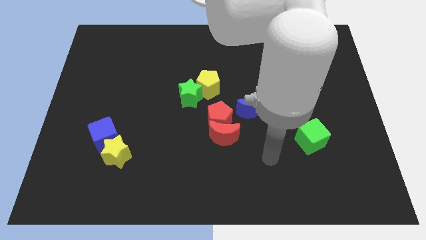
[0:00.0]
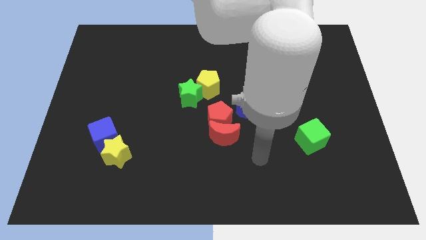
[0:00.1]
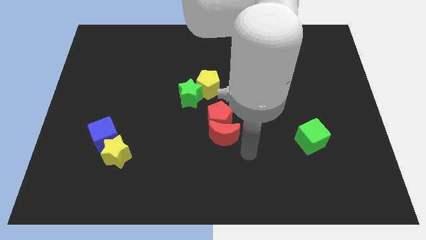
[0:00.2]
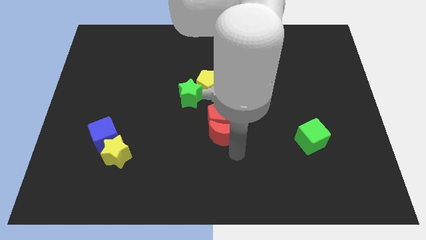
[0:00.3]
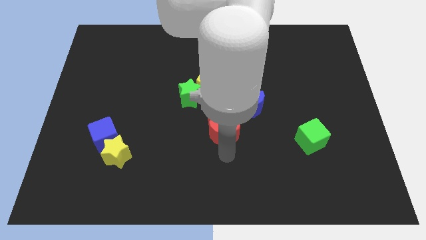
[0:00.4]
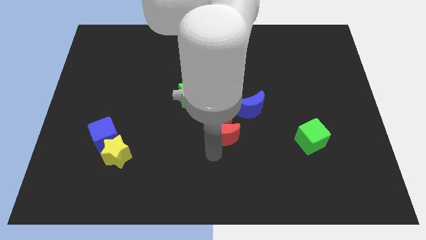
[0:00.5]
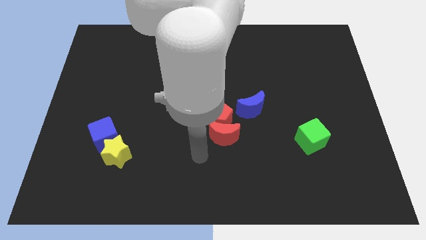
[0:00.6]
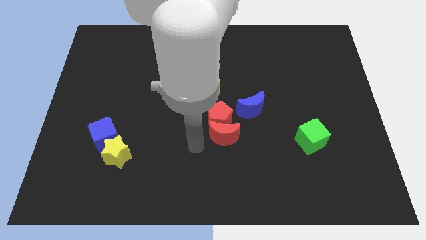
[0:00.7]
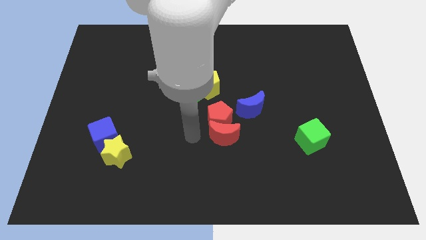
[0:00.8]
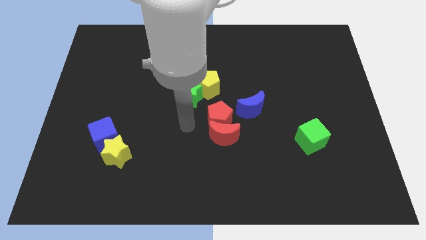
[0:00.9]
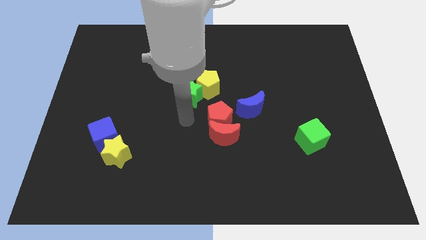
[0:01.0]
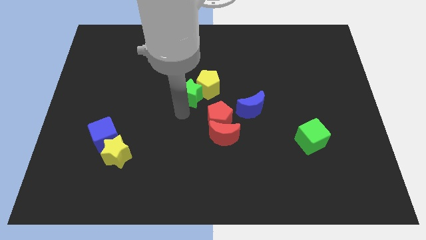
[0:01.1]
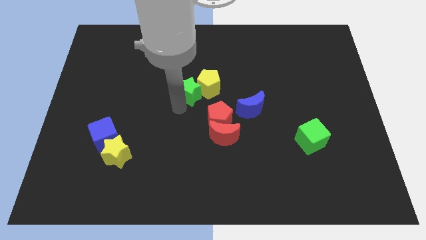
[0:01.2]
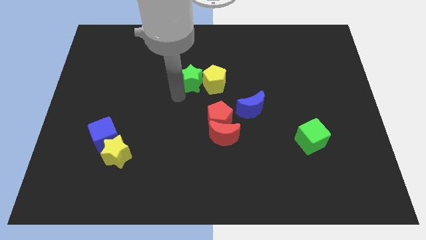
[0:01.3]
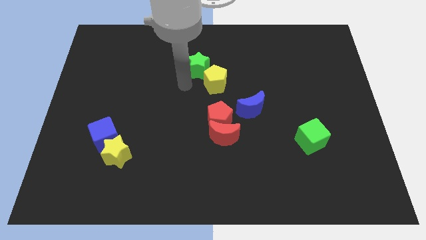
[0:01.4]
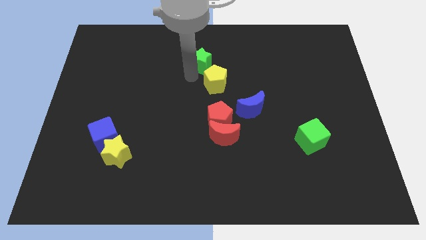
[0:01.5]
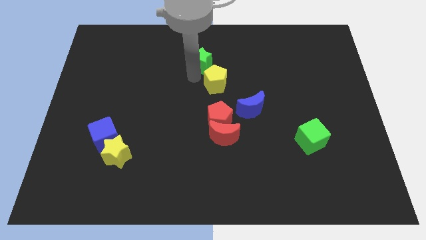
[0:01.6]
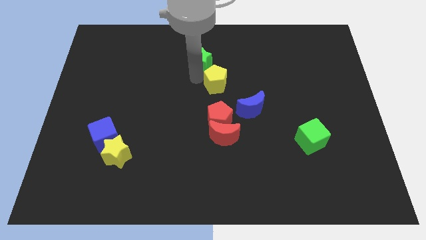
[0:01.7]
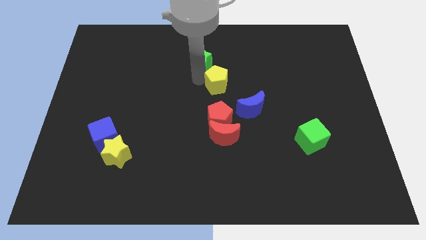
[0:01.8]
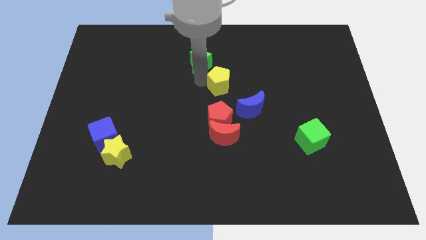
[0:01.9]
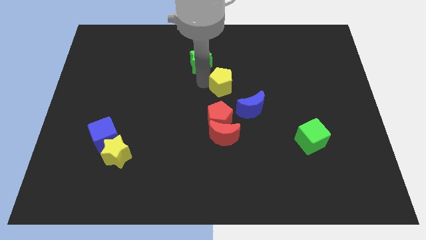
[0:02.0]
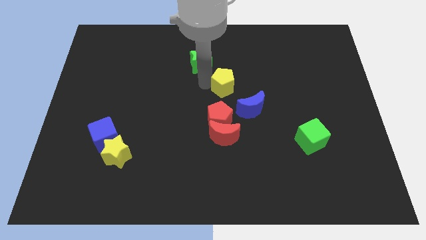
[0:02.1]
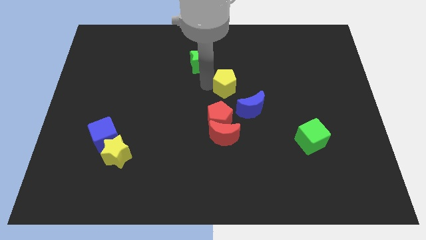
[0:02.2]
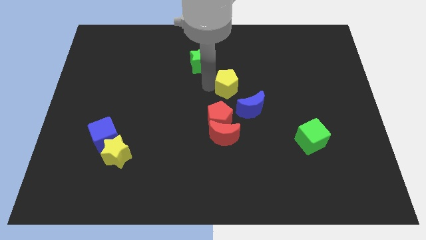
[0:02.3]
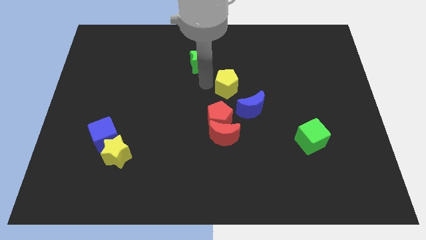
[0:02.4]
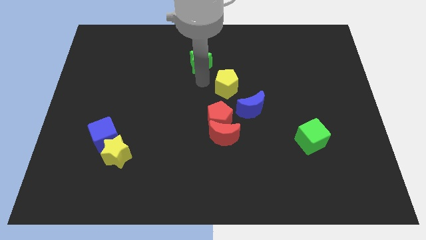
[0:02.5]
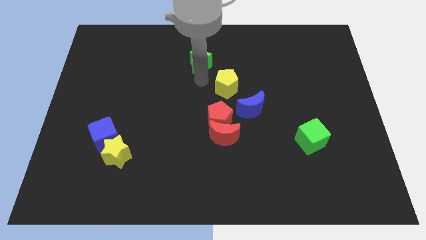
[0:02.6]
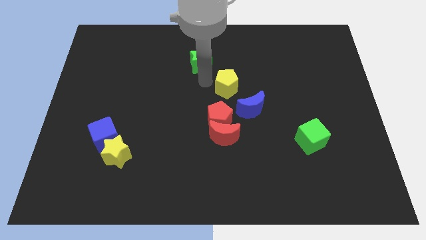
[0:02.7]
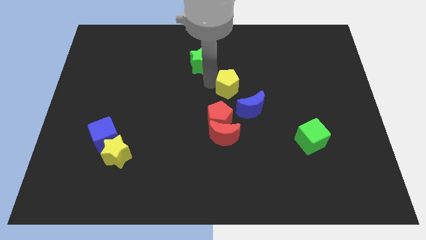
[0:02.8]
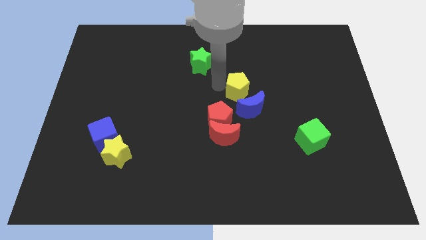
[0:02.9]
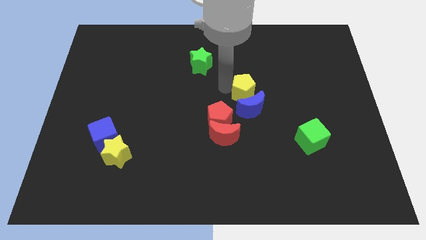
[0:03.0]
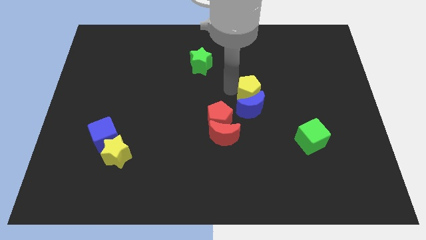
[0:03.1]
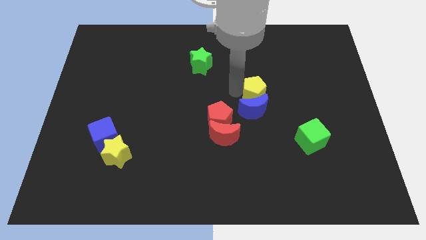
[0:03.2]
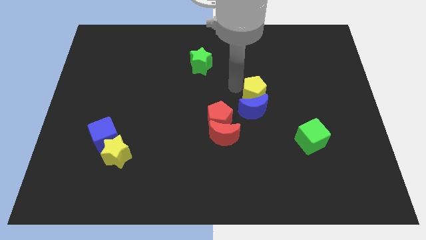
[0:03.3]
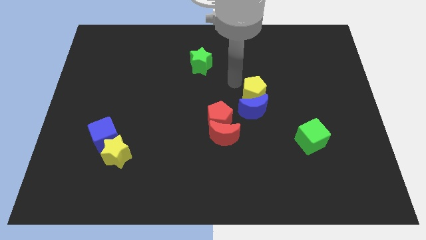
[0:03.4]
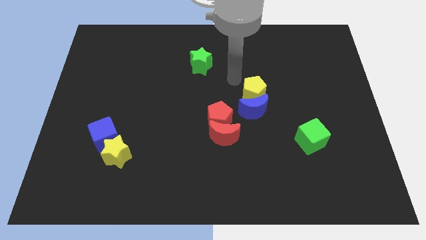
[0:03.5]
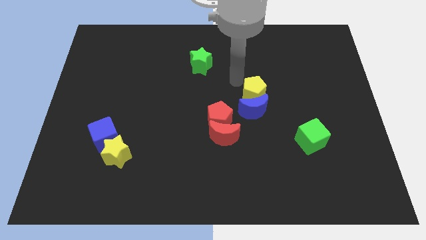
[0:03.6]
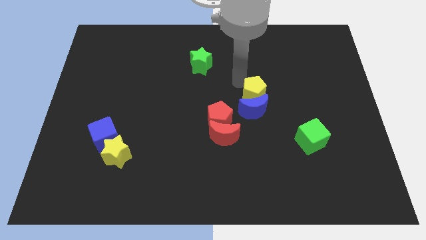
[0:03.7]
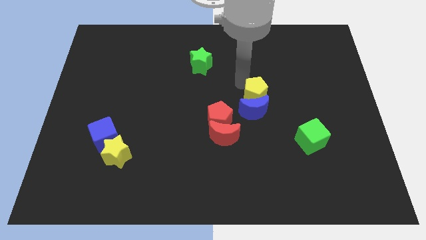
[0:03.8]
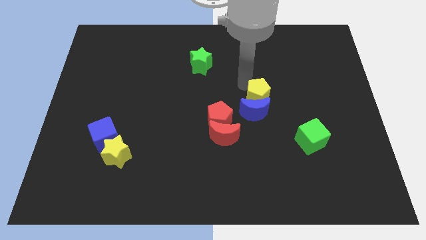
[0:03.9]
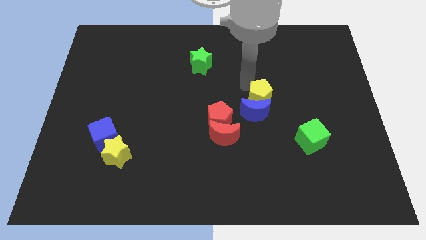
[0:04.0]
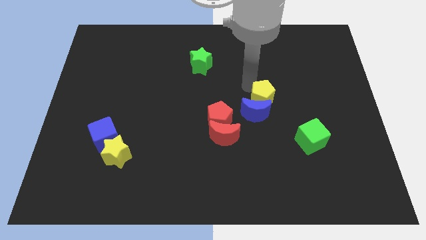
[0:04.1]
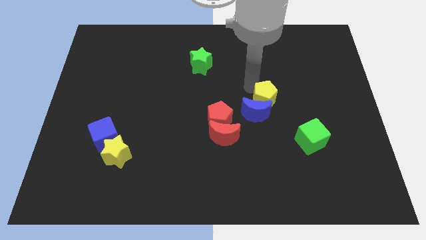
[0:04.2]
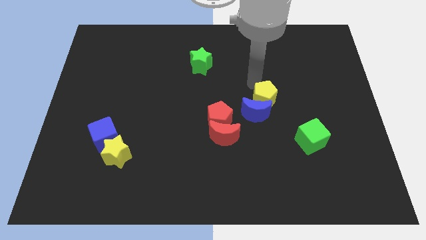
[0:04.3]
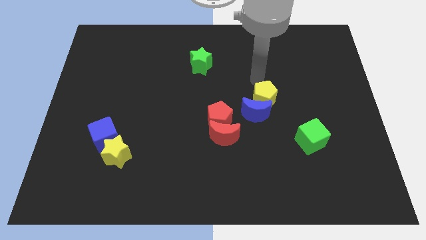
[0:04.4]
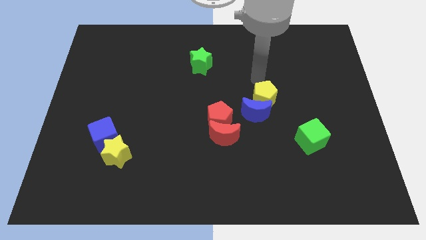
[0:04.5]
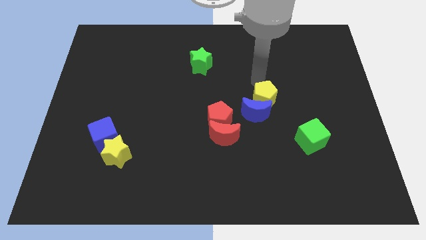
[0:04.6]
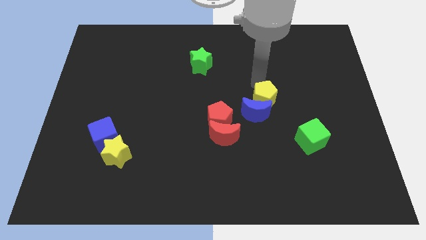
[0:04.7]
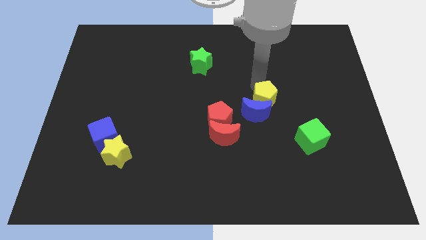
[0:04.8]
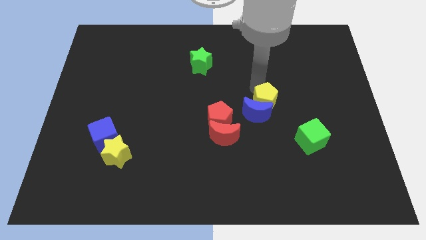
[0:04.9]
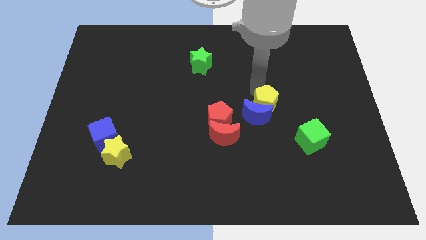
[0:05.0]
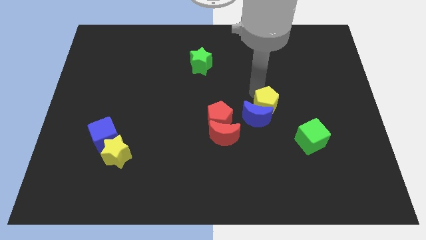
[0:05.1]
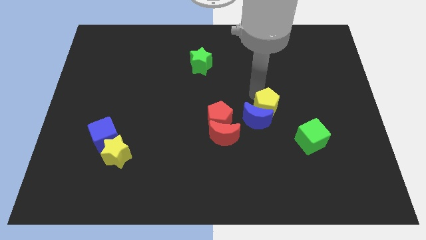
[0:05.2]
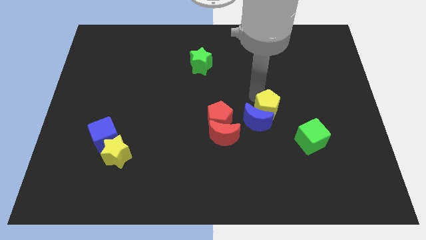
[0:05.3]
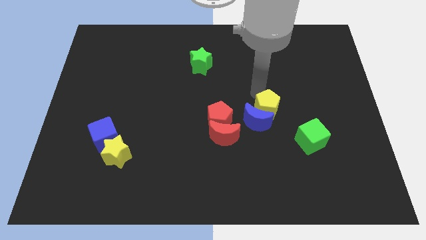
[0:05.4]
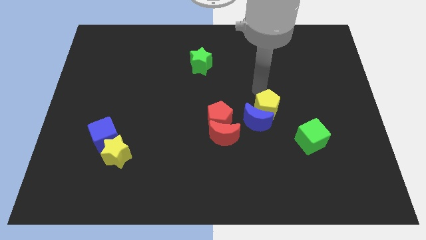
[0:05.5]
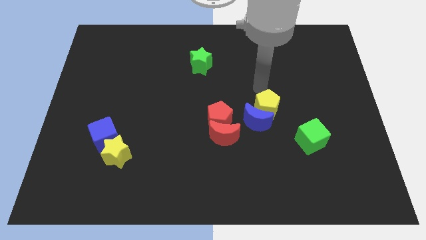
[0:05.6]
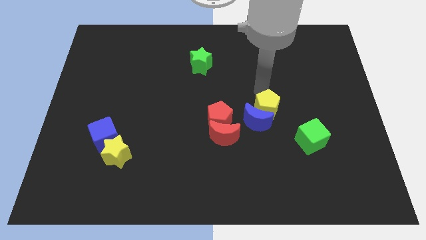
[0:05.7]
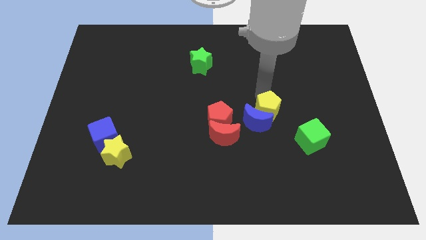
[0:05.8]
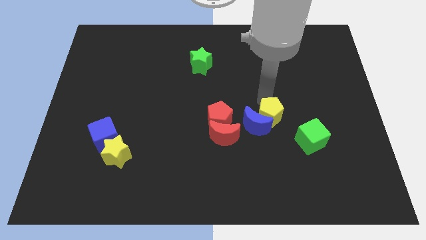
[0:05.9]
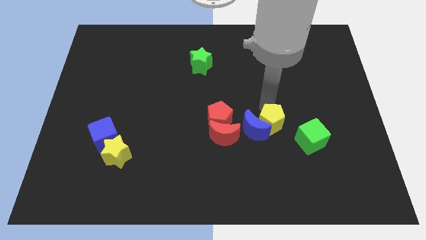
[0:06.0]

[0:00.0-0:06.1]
push the yellow pentagon to the right of the red moon

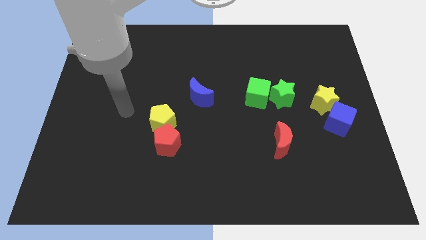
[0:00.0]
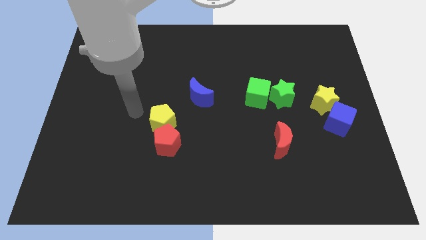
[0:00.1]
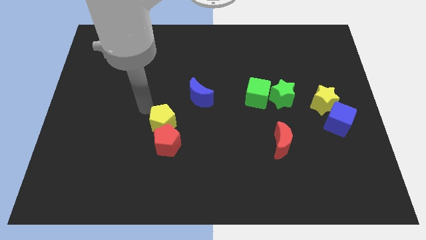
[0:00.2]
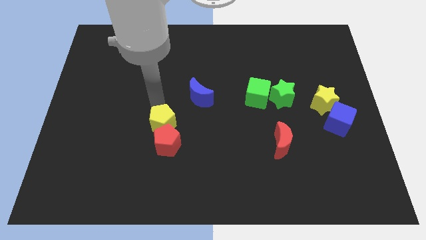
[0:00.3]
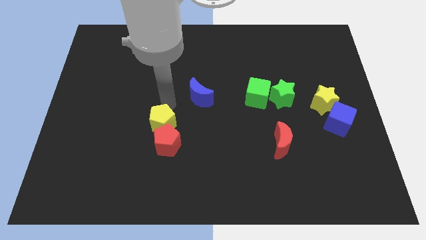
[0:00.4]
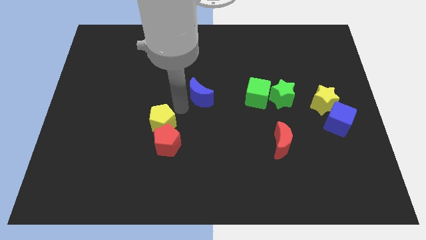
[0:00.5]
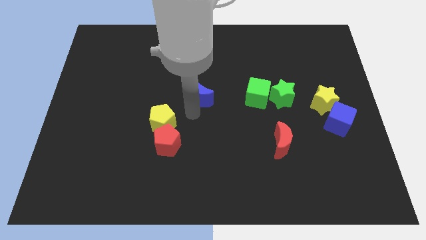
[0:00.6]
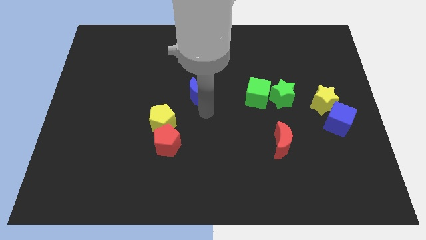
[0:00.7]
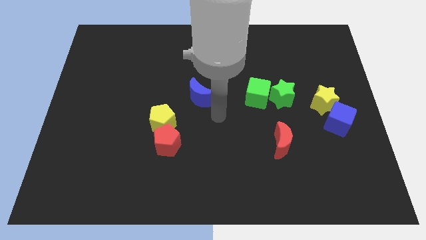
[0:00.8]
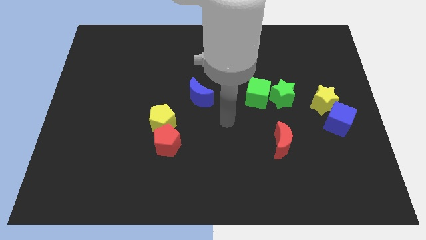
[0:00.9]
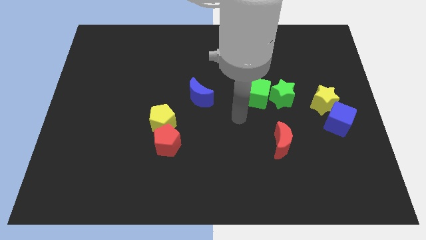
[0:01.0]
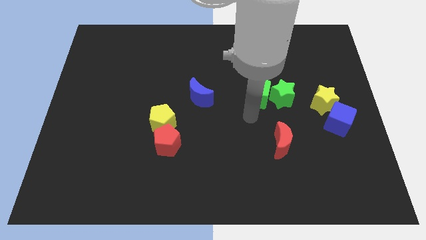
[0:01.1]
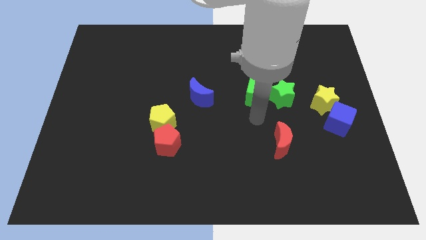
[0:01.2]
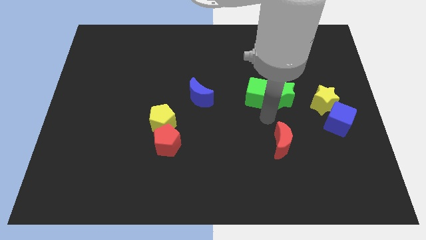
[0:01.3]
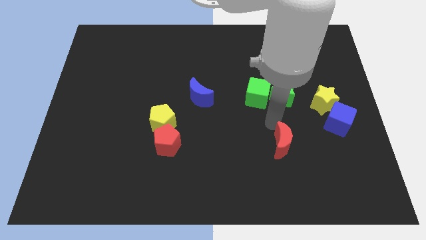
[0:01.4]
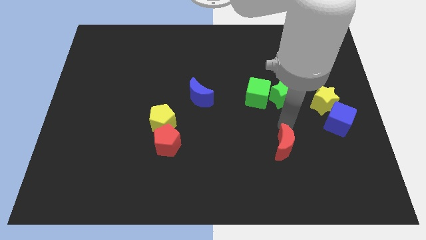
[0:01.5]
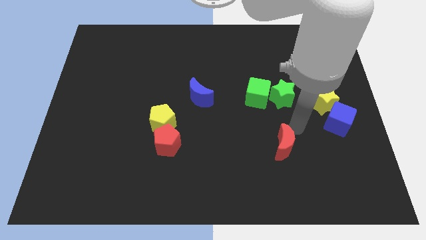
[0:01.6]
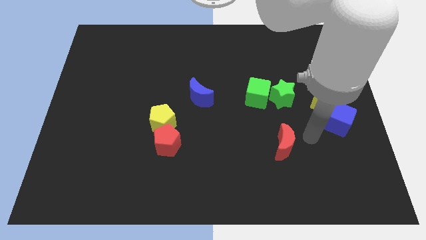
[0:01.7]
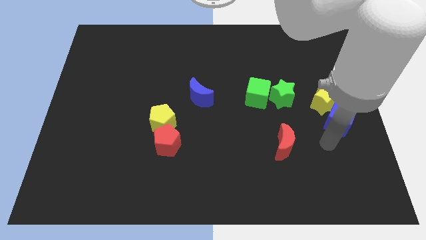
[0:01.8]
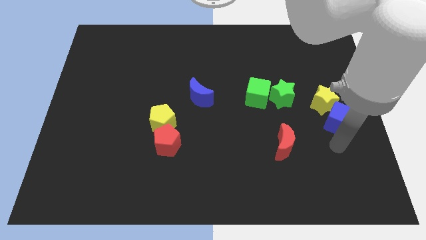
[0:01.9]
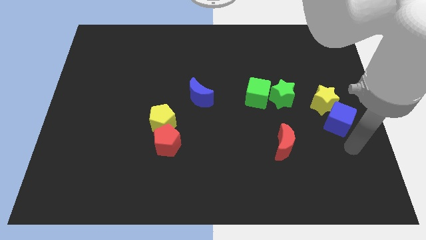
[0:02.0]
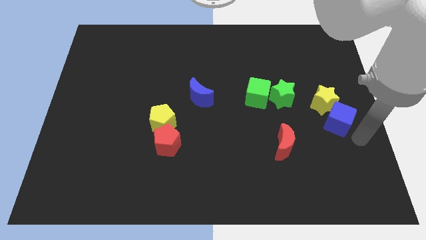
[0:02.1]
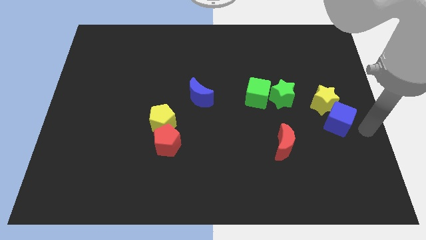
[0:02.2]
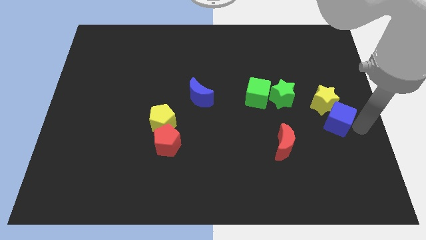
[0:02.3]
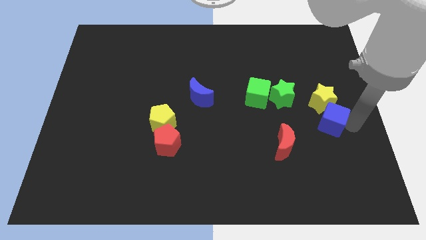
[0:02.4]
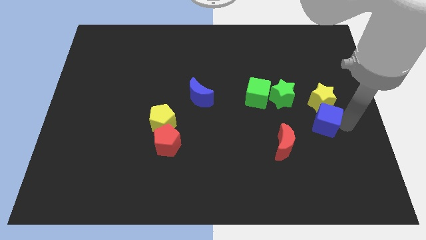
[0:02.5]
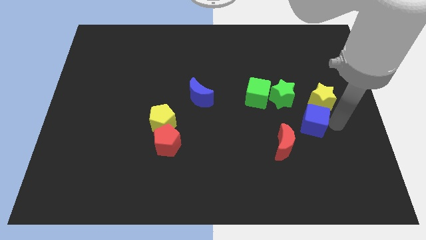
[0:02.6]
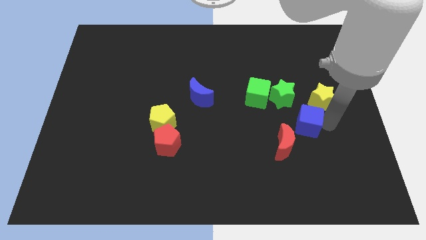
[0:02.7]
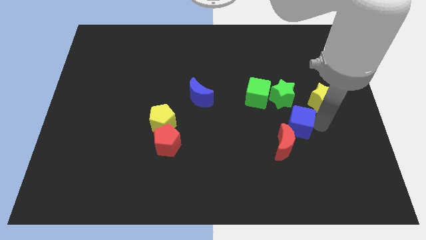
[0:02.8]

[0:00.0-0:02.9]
move the blue cube to the bottom right of the green cube
